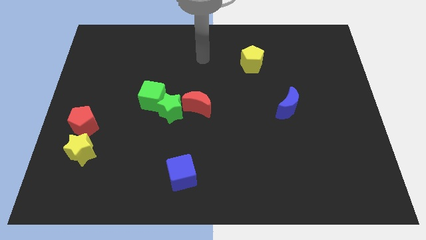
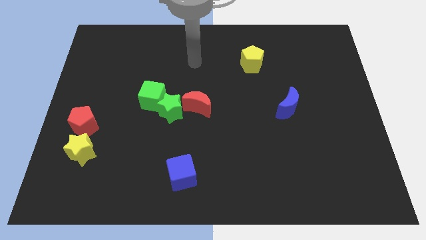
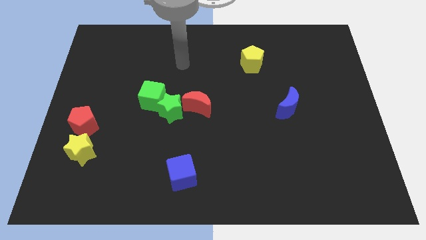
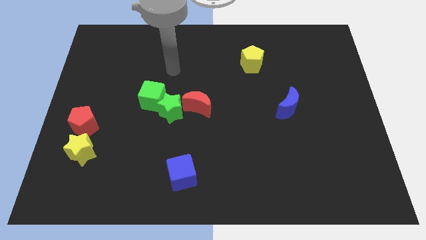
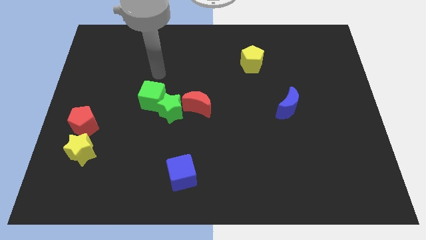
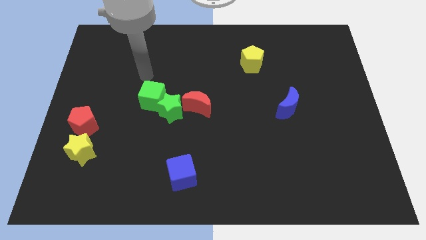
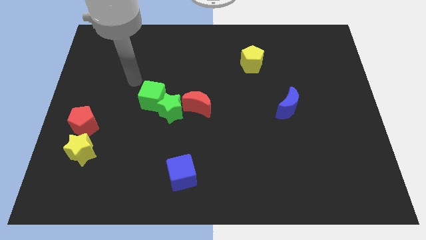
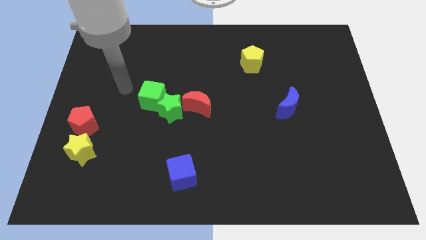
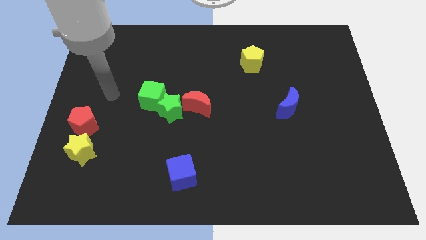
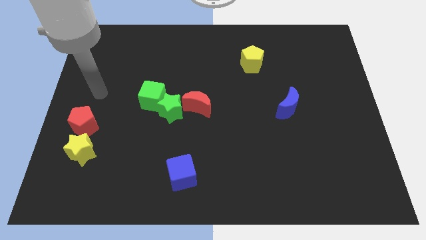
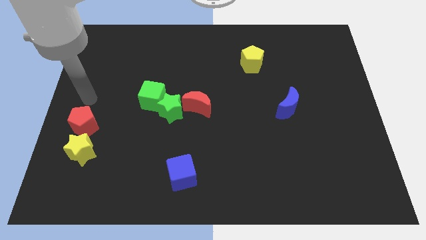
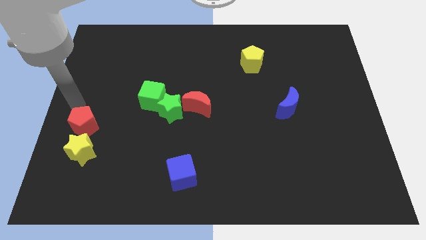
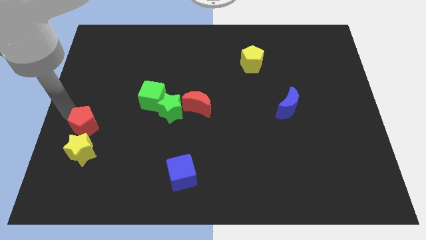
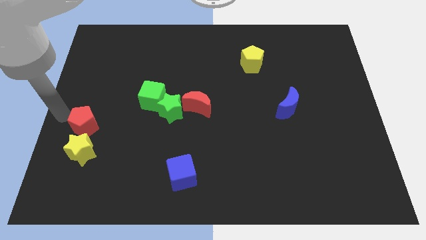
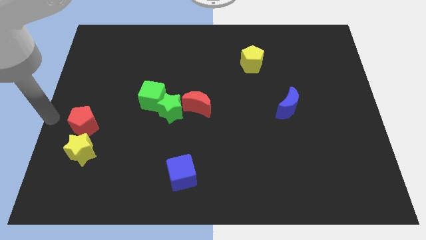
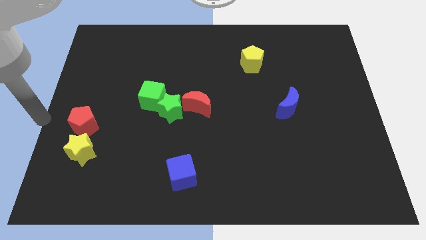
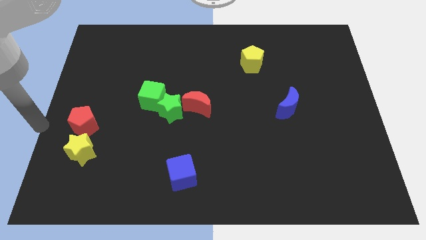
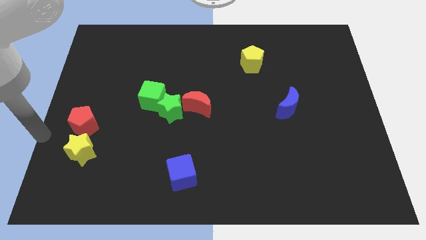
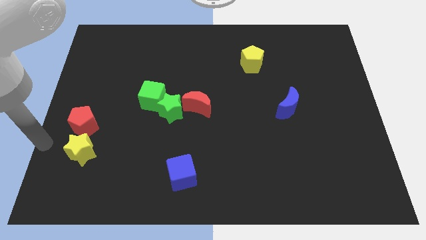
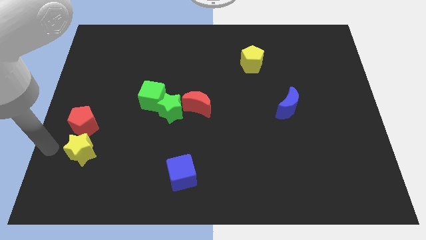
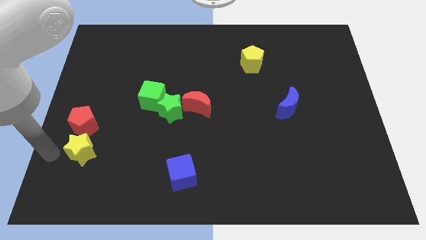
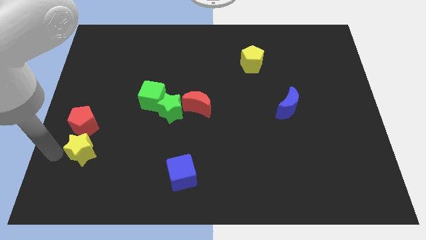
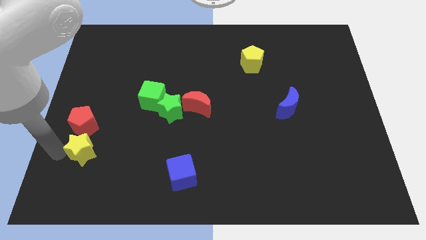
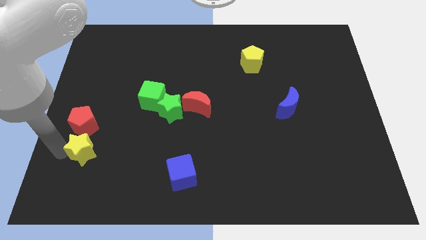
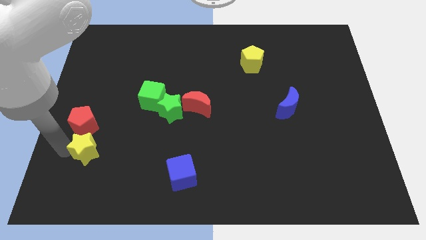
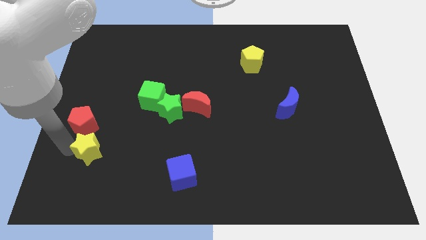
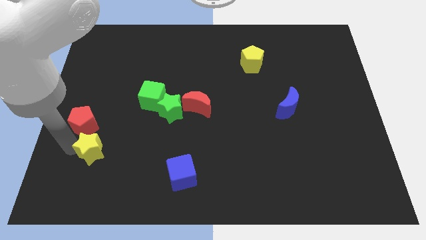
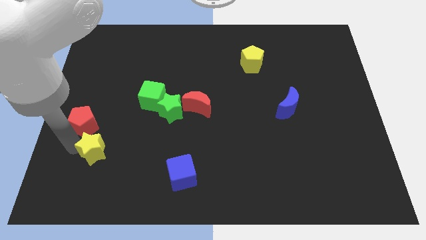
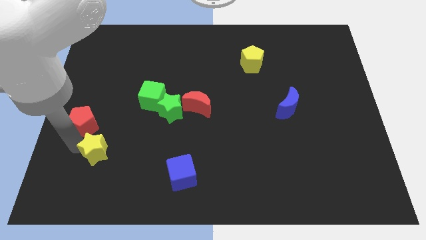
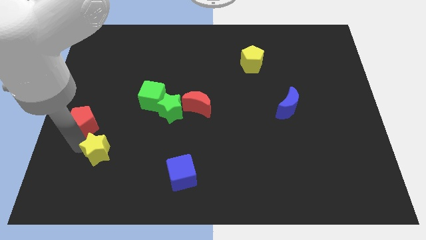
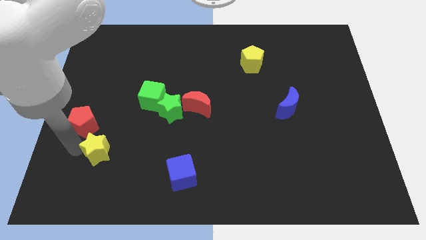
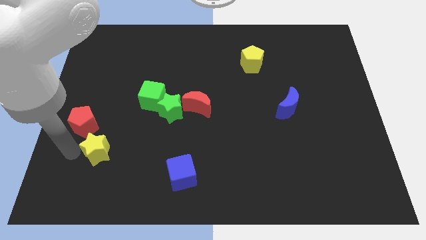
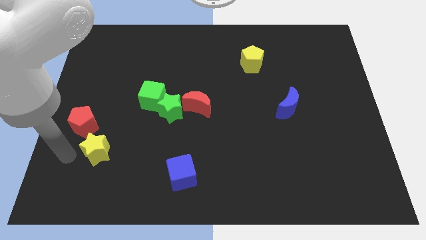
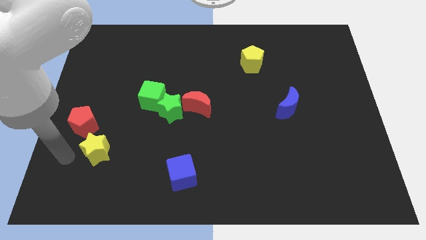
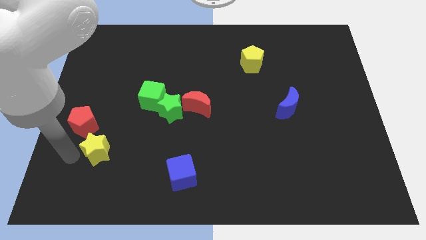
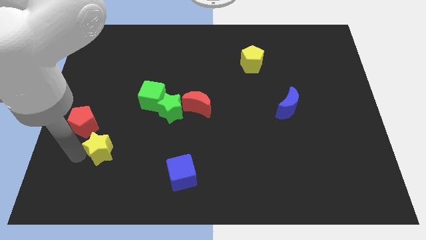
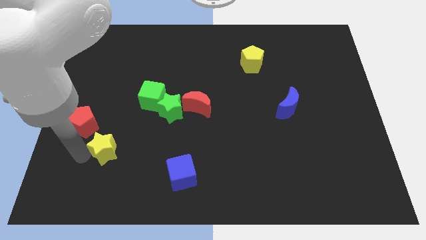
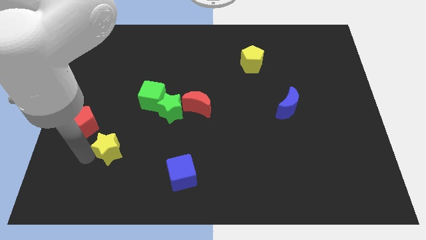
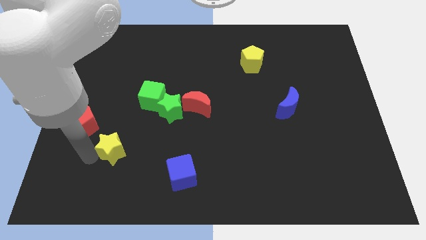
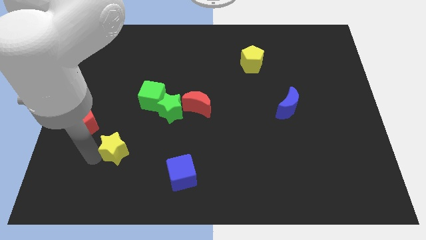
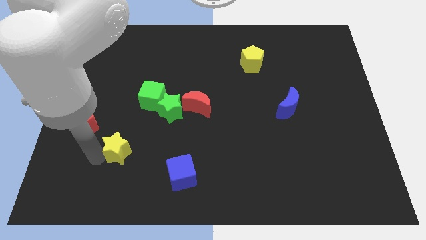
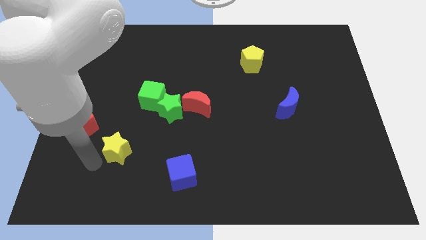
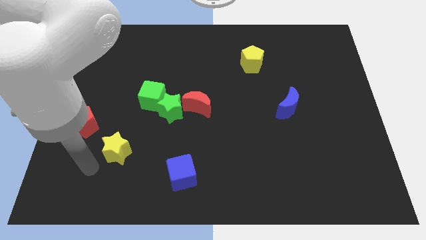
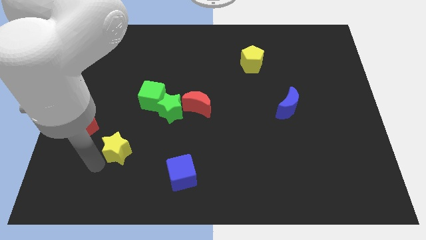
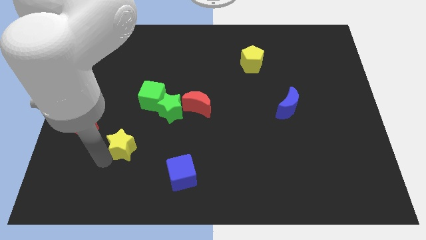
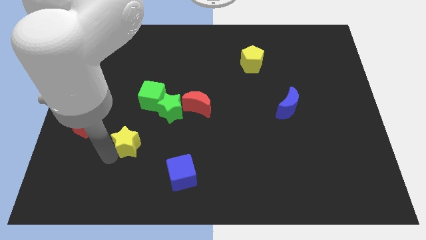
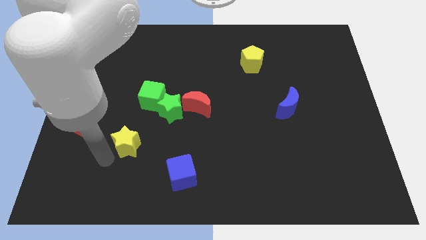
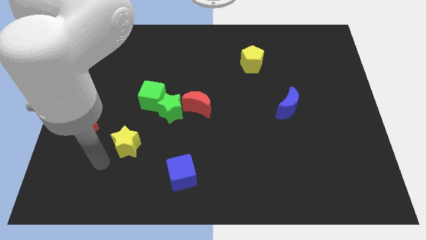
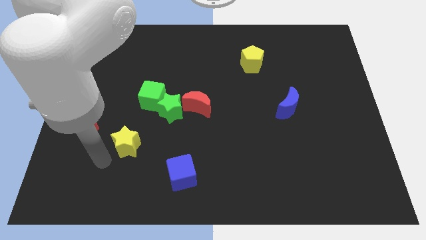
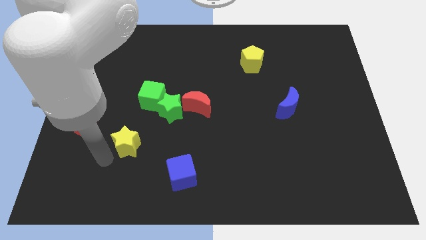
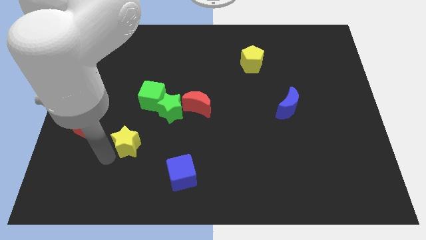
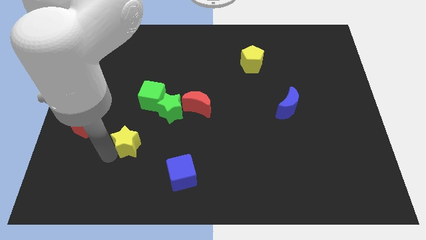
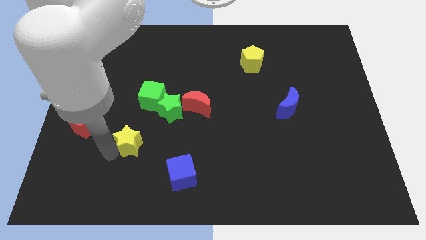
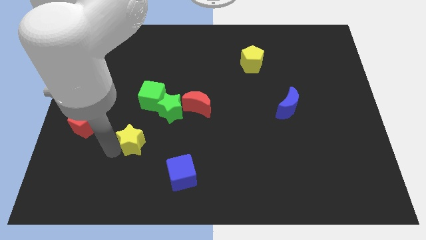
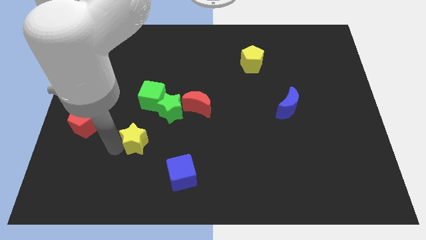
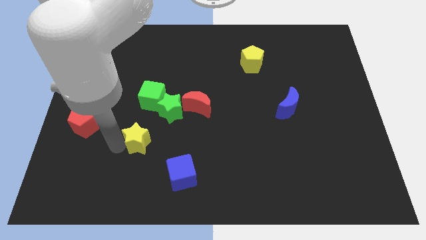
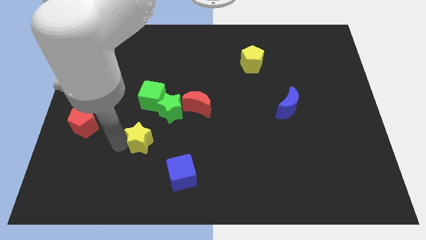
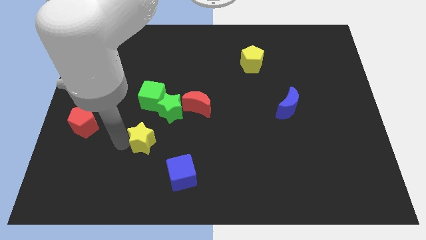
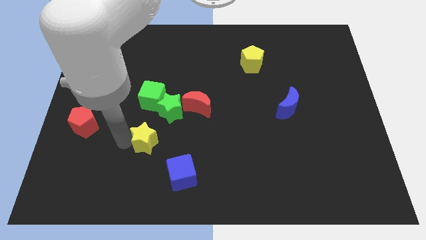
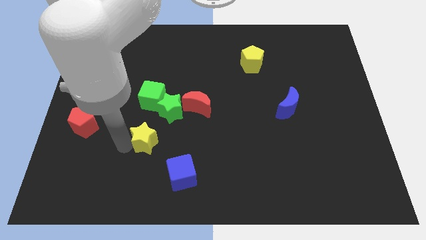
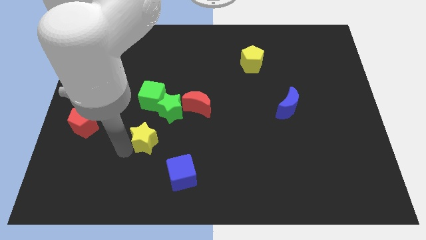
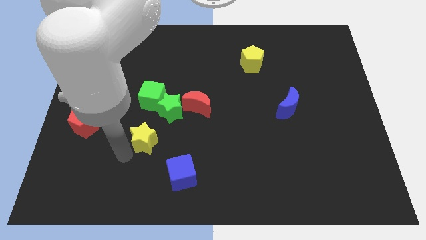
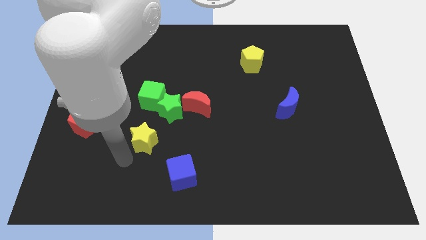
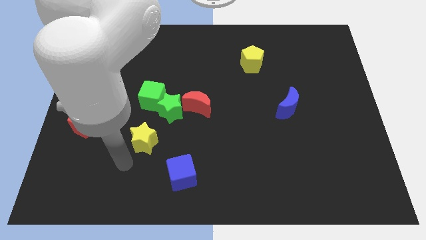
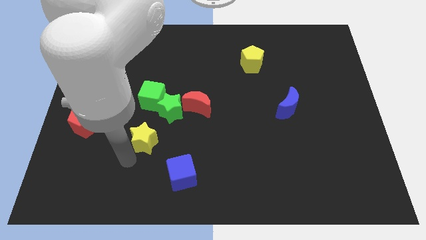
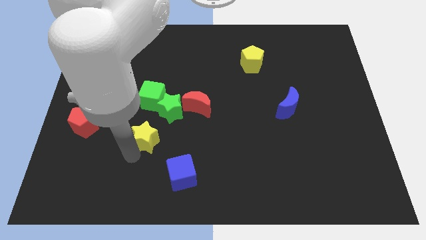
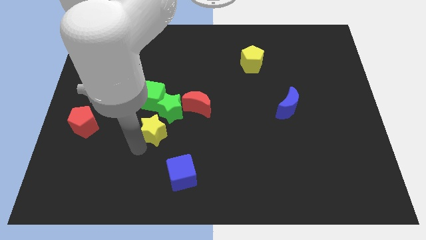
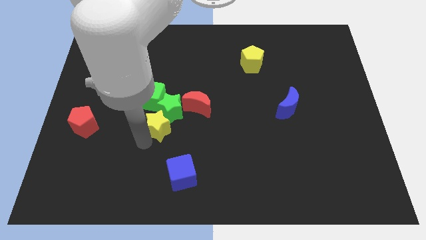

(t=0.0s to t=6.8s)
put the yellow star to the bottom right of the green cube
